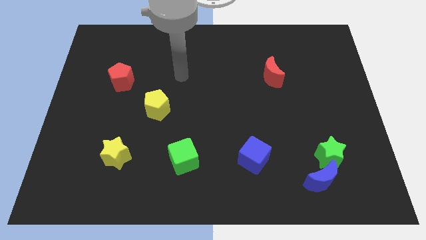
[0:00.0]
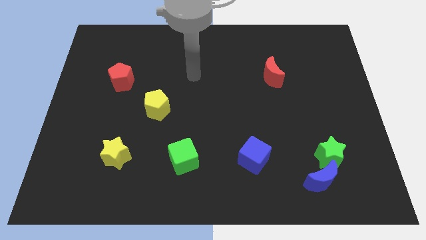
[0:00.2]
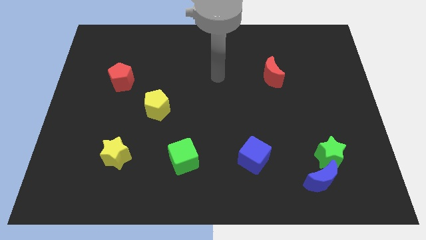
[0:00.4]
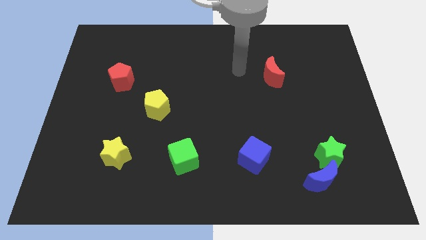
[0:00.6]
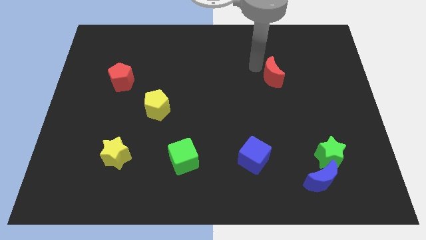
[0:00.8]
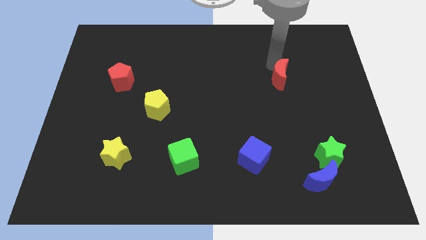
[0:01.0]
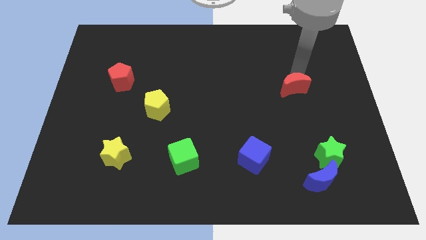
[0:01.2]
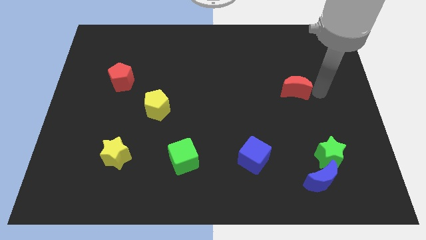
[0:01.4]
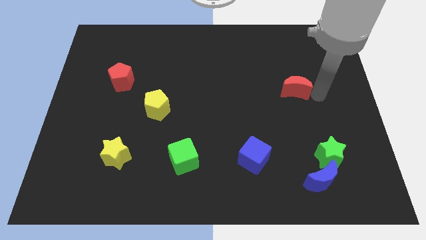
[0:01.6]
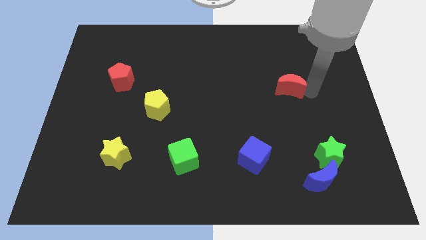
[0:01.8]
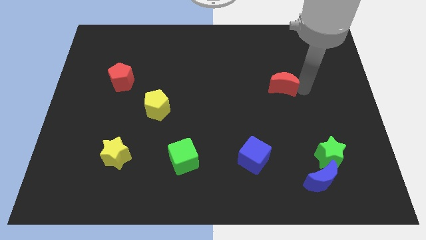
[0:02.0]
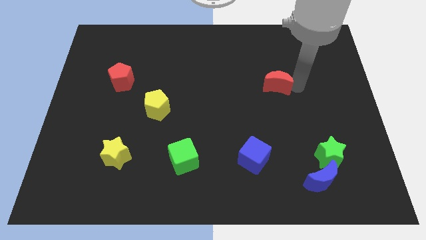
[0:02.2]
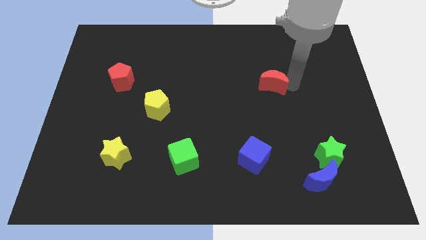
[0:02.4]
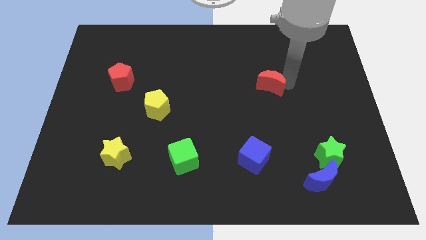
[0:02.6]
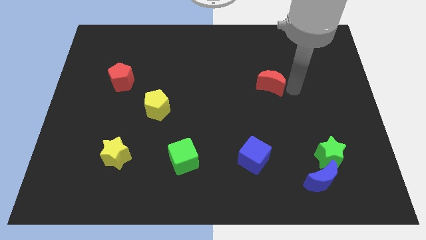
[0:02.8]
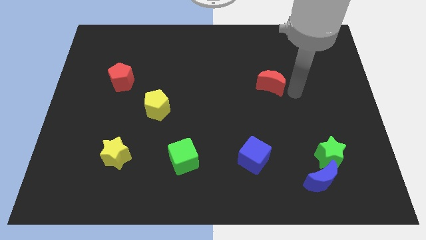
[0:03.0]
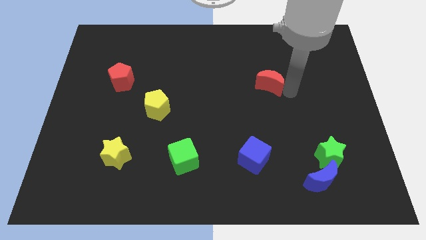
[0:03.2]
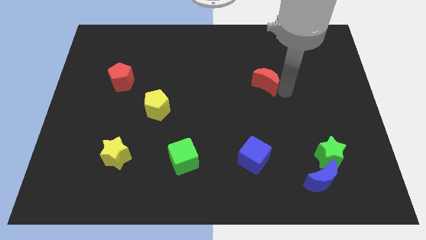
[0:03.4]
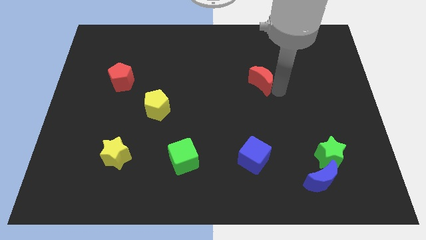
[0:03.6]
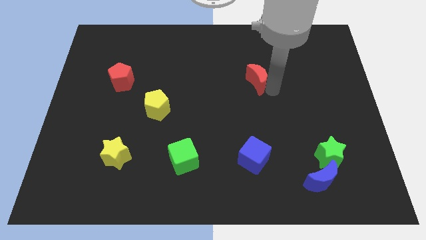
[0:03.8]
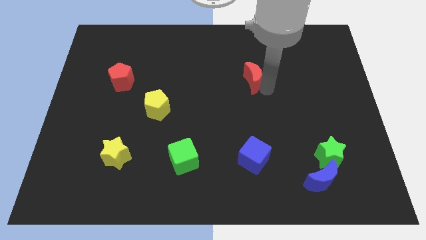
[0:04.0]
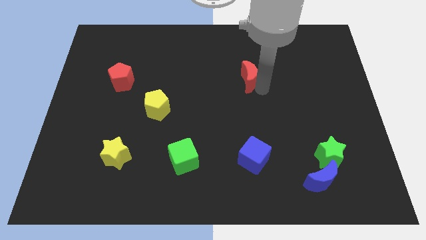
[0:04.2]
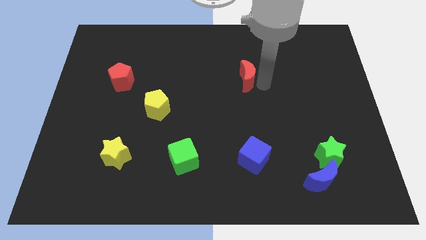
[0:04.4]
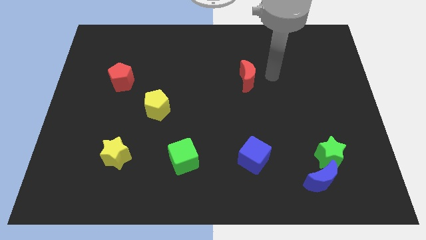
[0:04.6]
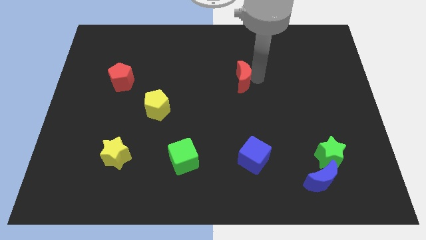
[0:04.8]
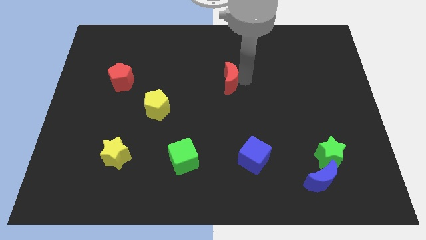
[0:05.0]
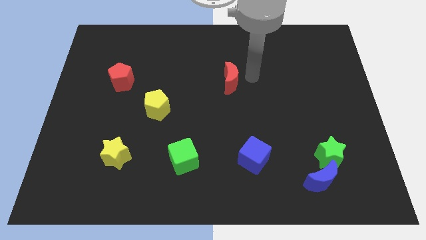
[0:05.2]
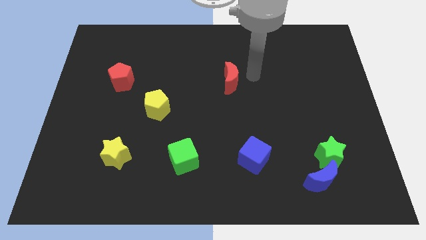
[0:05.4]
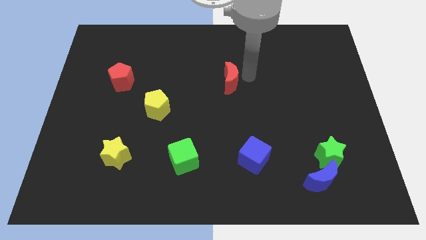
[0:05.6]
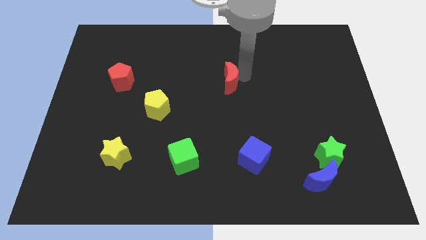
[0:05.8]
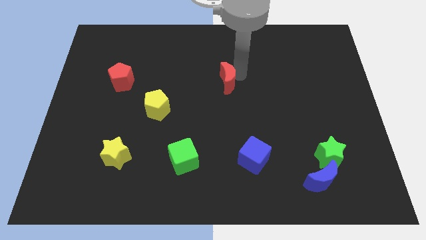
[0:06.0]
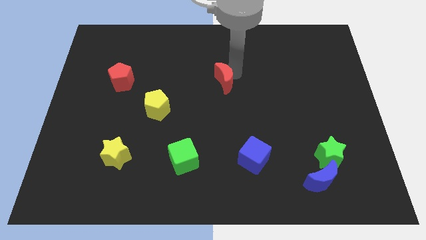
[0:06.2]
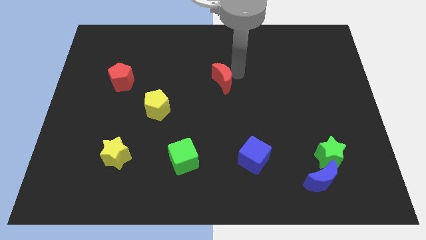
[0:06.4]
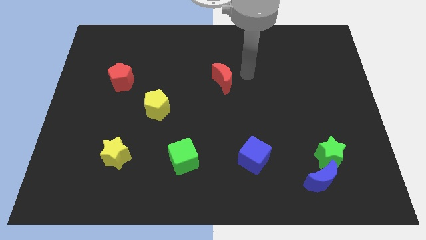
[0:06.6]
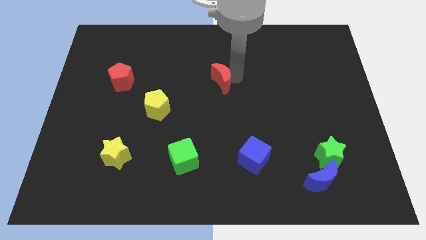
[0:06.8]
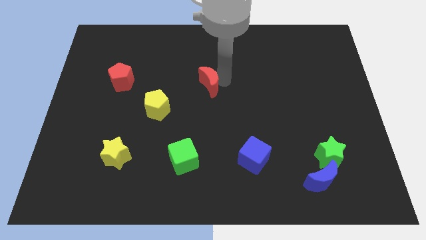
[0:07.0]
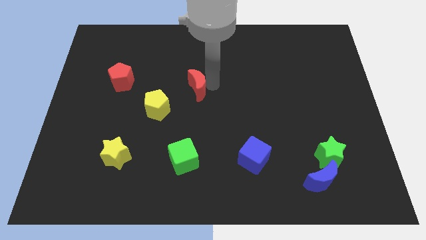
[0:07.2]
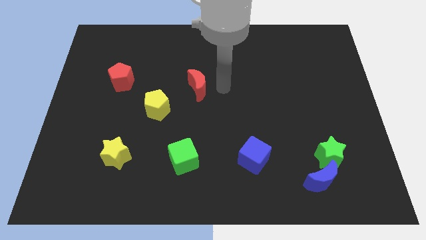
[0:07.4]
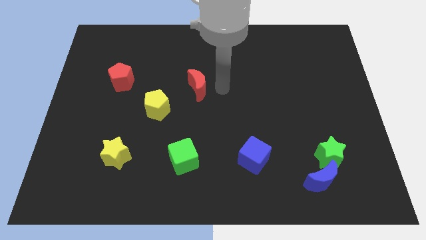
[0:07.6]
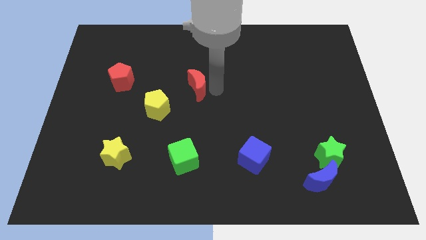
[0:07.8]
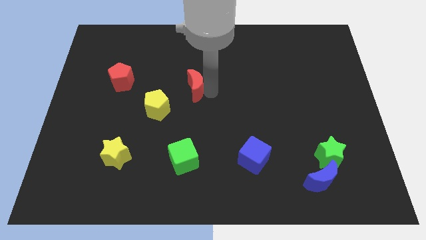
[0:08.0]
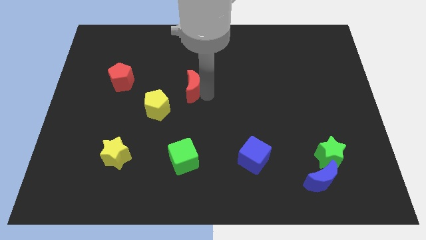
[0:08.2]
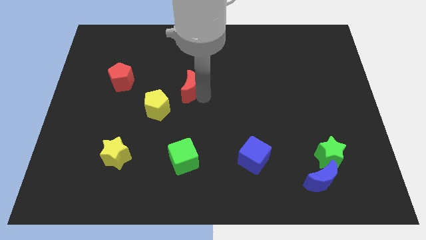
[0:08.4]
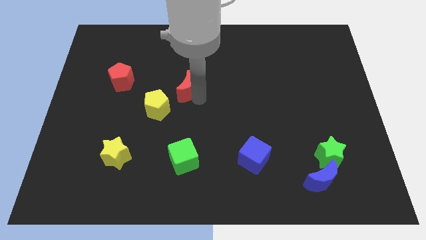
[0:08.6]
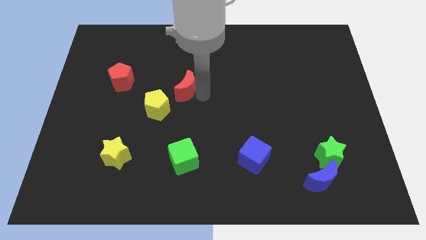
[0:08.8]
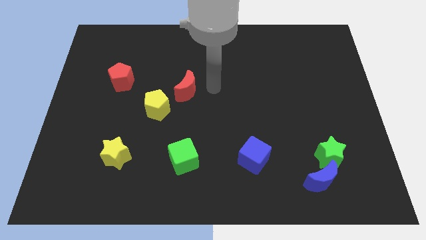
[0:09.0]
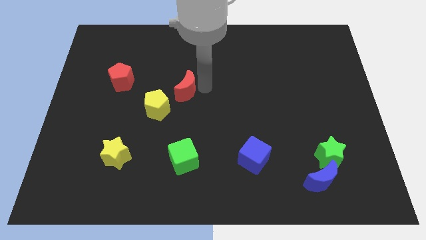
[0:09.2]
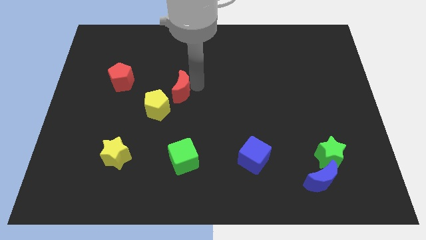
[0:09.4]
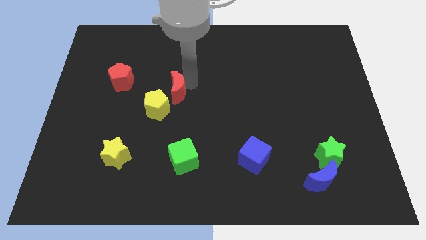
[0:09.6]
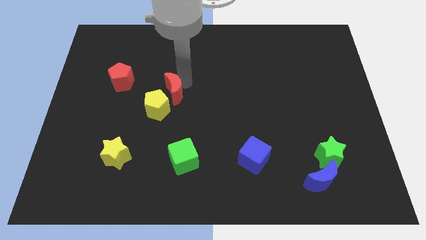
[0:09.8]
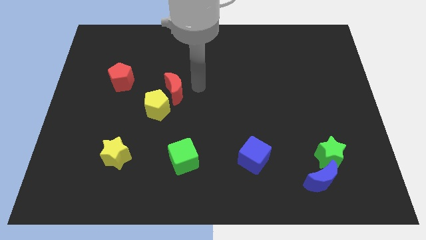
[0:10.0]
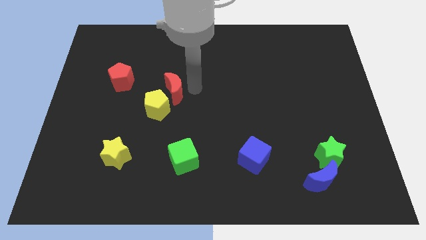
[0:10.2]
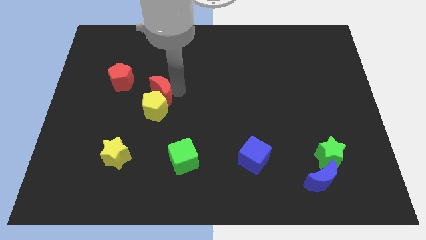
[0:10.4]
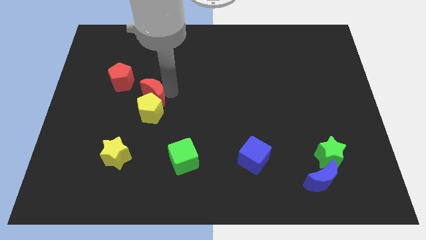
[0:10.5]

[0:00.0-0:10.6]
move the red moon to the bottom right side of the red pentagon

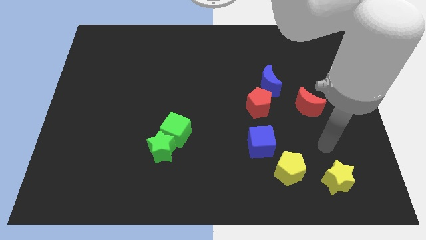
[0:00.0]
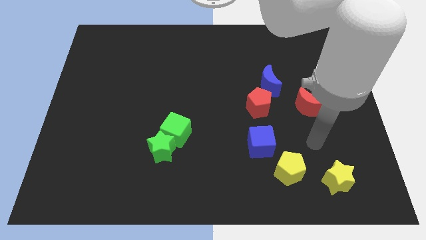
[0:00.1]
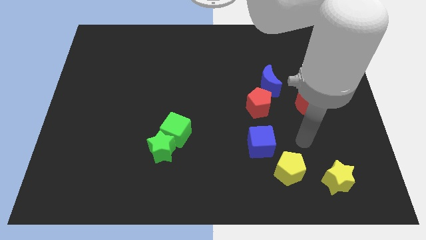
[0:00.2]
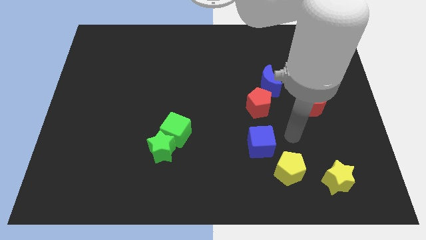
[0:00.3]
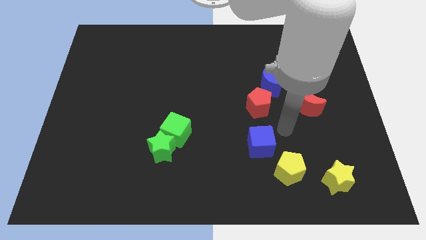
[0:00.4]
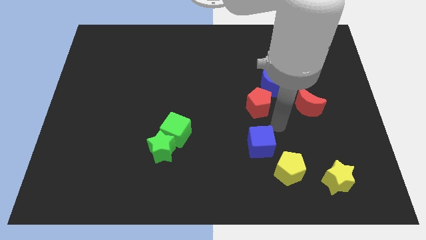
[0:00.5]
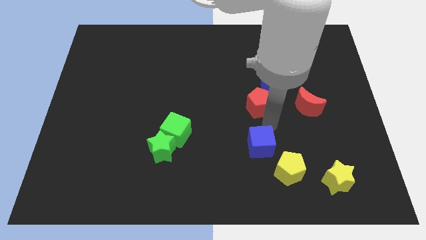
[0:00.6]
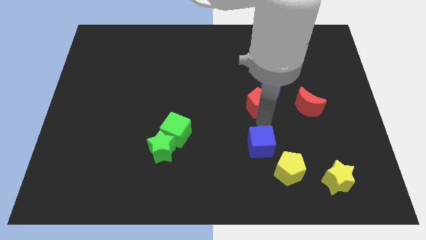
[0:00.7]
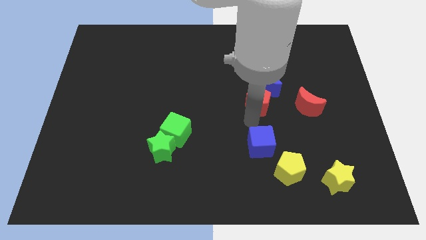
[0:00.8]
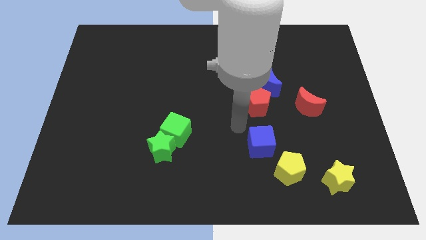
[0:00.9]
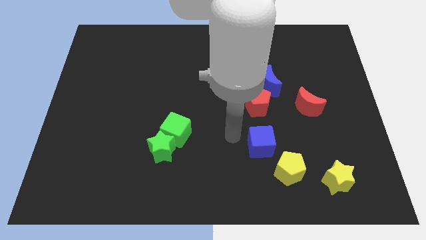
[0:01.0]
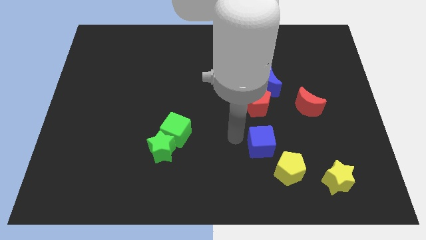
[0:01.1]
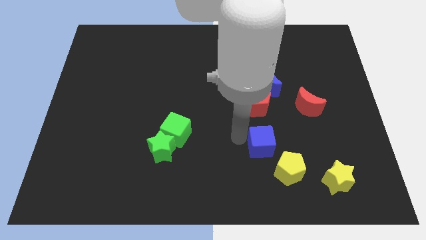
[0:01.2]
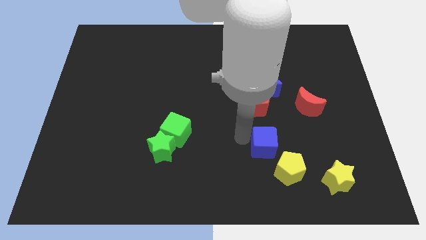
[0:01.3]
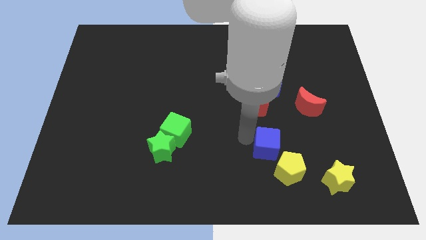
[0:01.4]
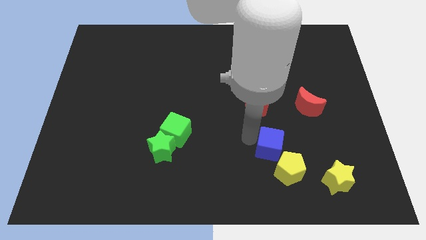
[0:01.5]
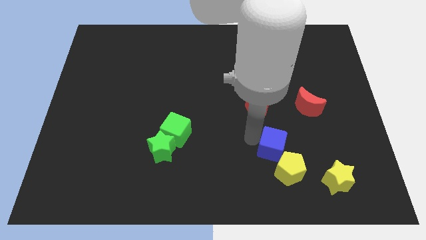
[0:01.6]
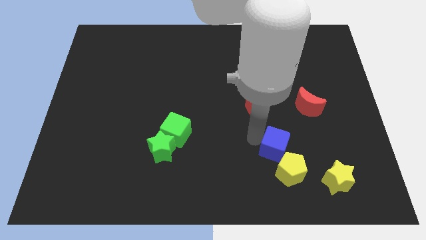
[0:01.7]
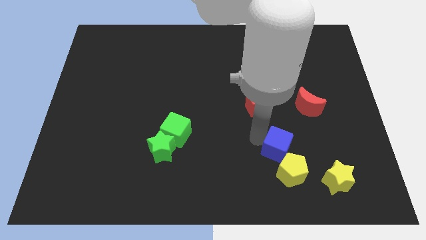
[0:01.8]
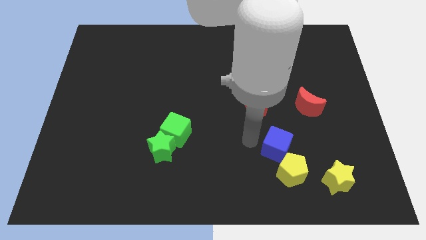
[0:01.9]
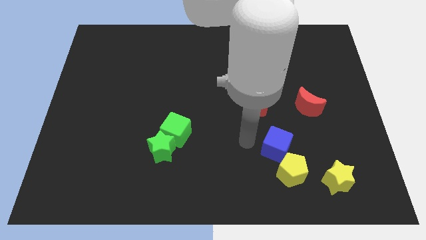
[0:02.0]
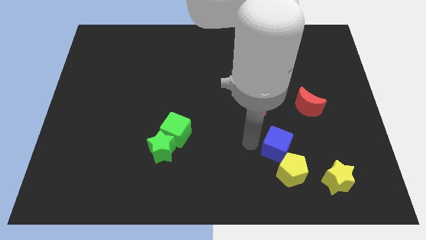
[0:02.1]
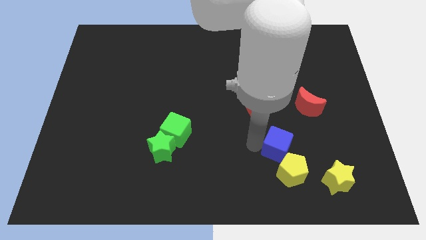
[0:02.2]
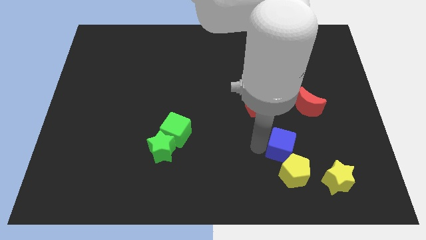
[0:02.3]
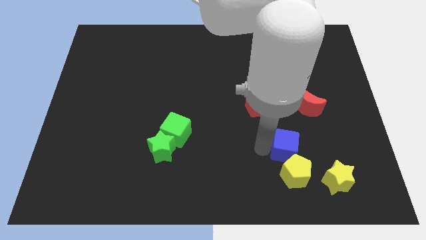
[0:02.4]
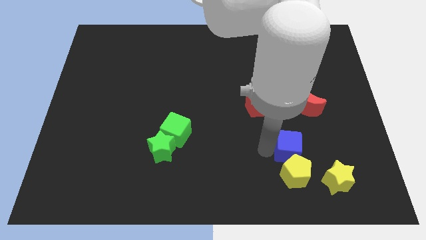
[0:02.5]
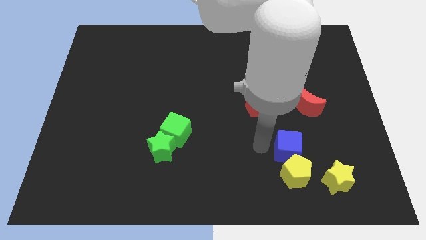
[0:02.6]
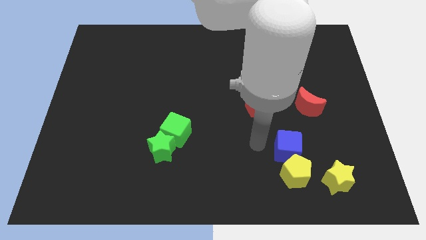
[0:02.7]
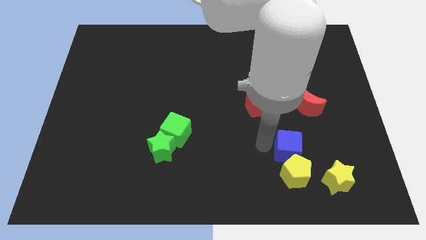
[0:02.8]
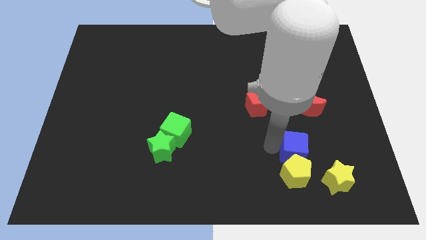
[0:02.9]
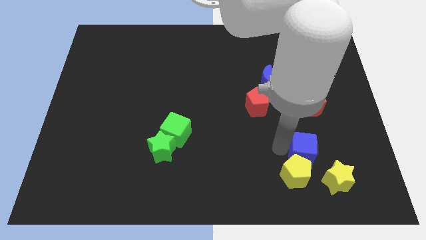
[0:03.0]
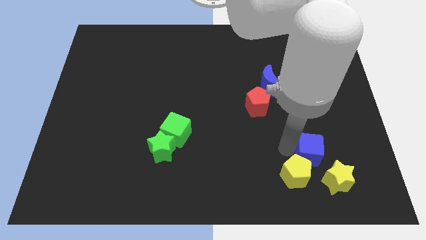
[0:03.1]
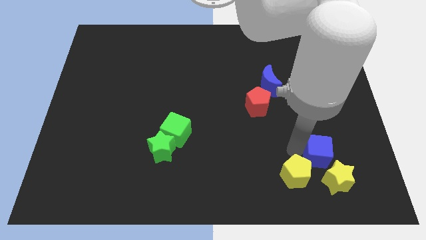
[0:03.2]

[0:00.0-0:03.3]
slide the blue cube to the right of the yellow pentagon
